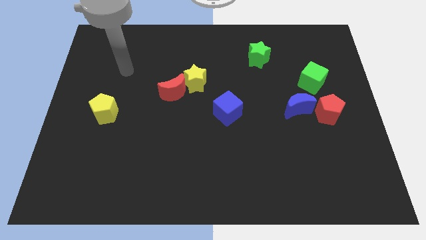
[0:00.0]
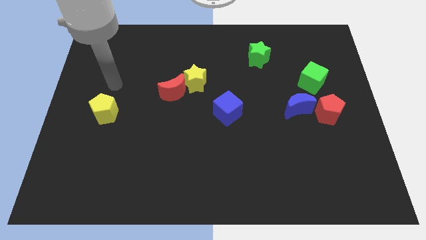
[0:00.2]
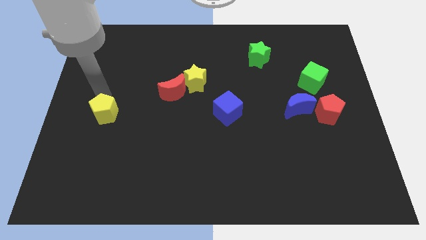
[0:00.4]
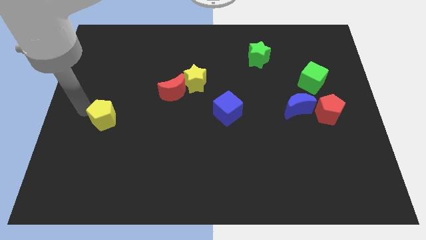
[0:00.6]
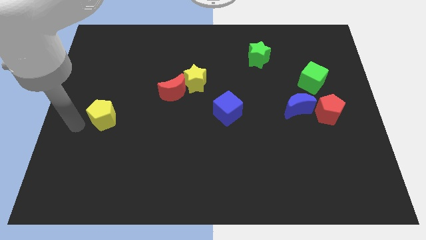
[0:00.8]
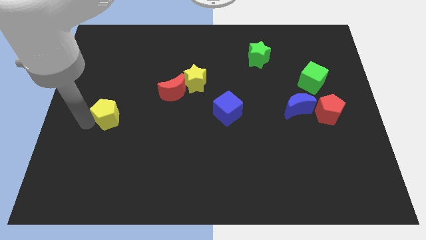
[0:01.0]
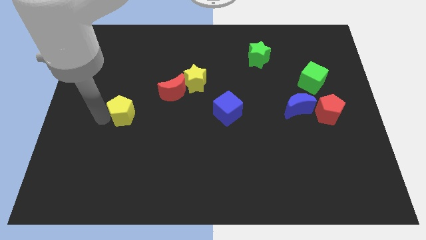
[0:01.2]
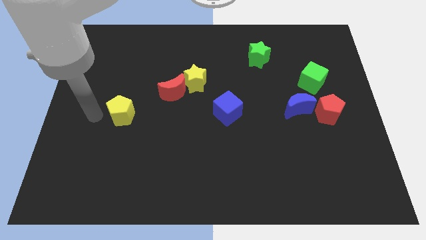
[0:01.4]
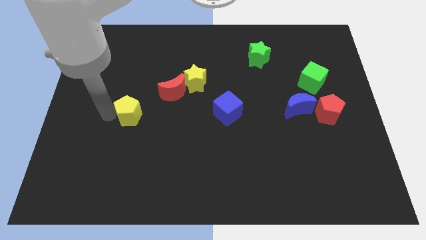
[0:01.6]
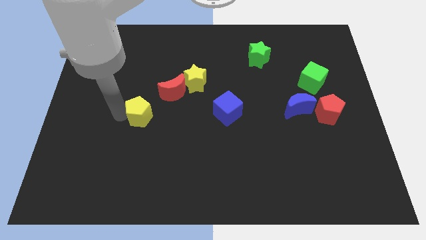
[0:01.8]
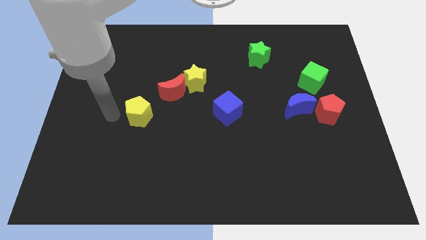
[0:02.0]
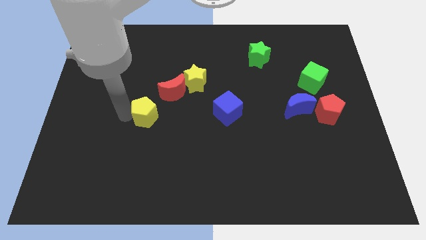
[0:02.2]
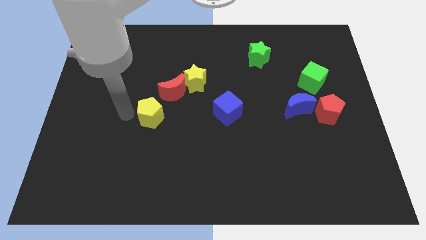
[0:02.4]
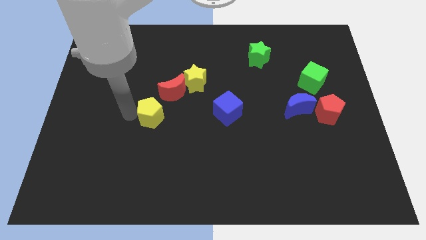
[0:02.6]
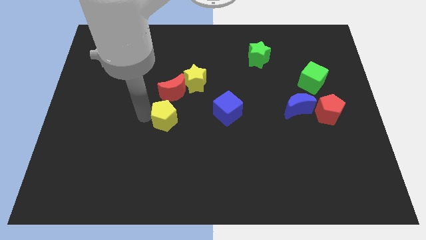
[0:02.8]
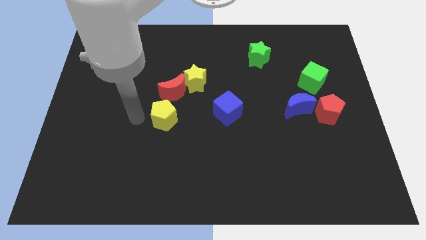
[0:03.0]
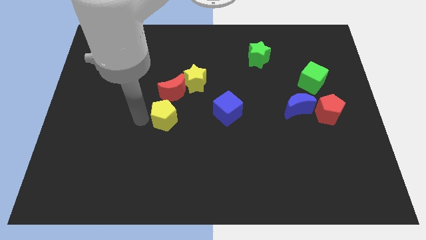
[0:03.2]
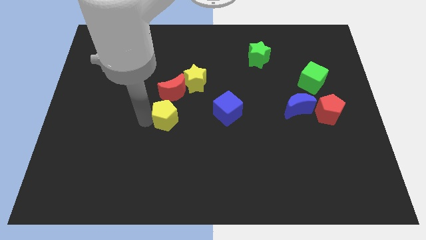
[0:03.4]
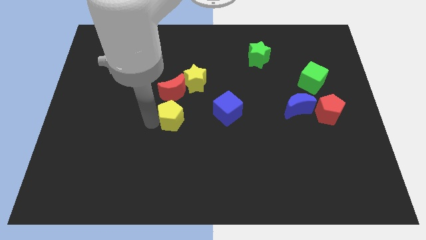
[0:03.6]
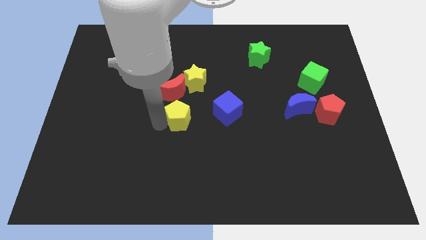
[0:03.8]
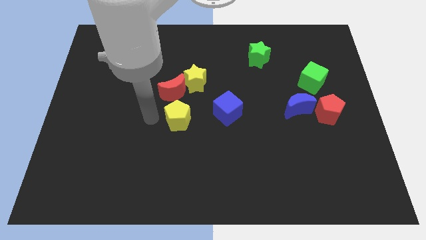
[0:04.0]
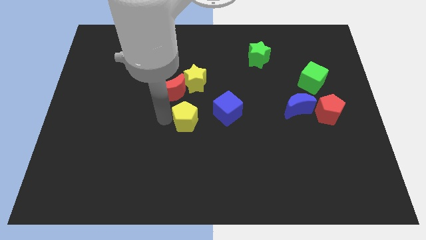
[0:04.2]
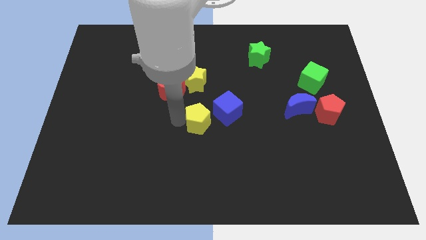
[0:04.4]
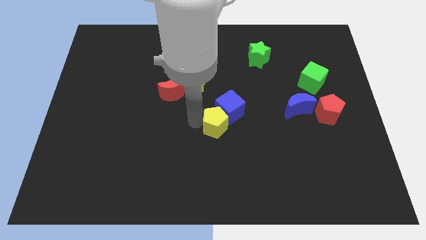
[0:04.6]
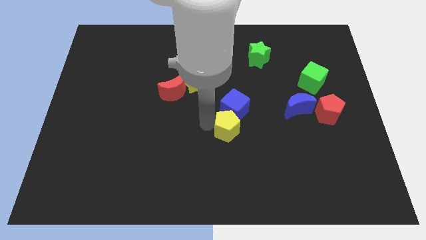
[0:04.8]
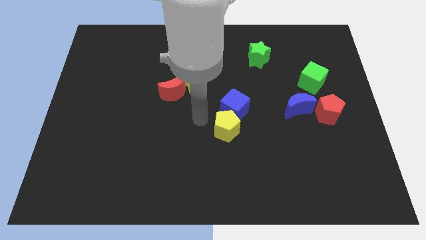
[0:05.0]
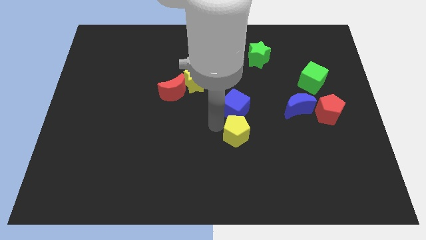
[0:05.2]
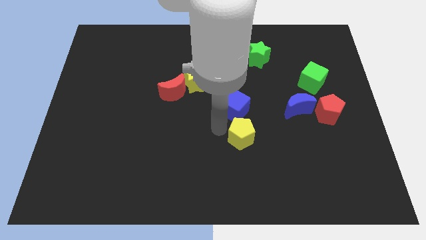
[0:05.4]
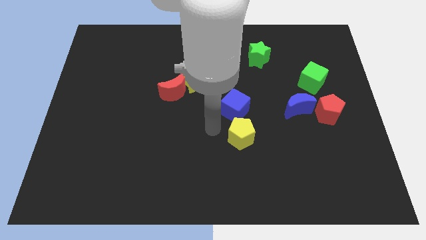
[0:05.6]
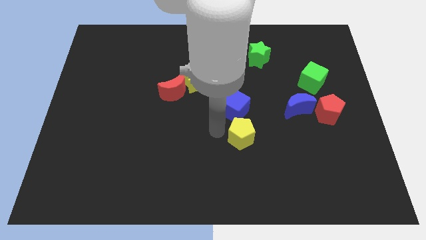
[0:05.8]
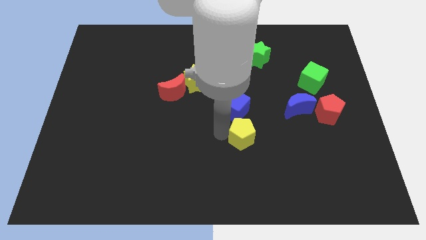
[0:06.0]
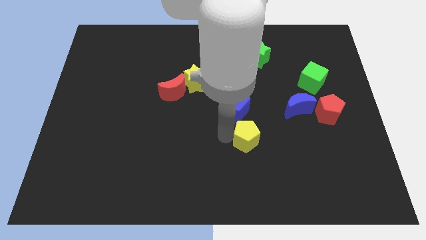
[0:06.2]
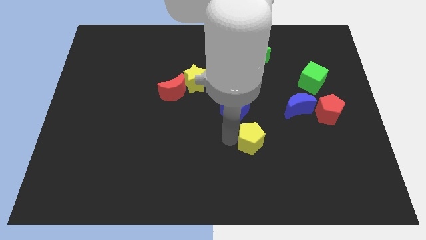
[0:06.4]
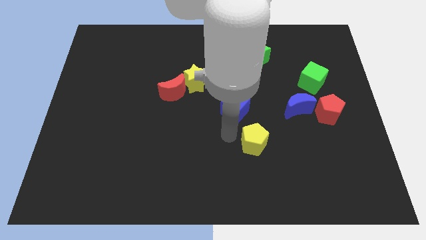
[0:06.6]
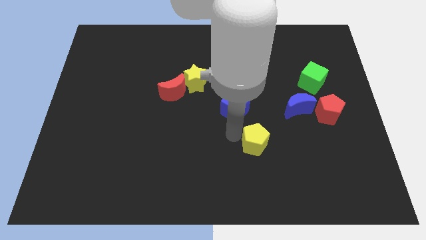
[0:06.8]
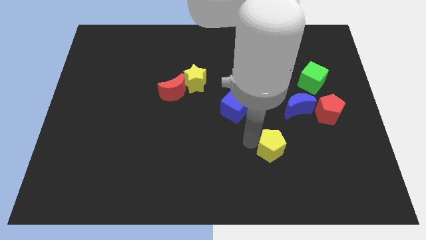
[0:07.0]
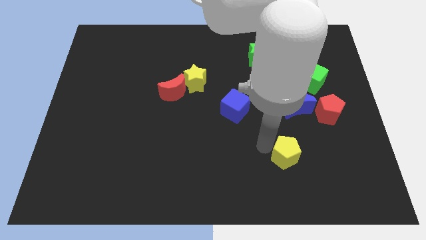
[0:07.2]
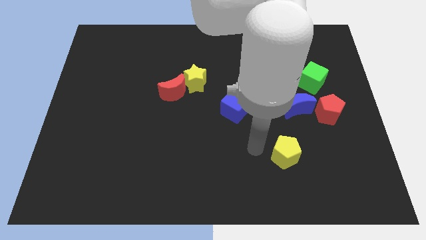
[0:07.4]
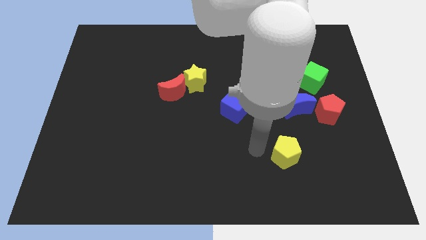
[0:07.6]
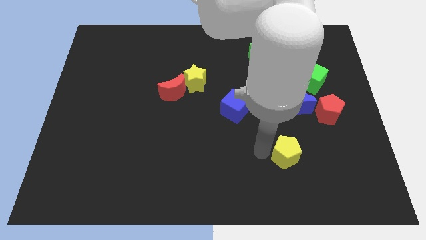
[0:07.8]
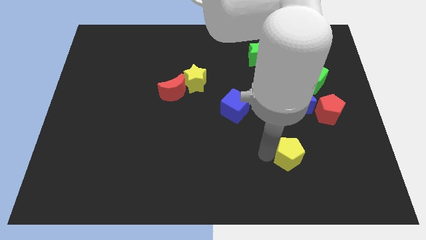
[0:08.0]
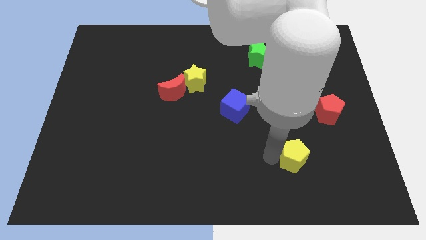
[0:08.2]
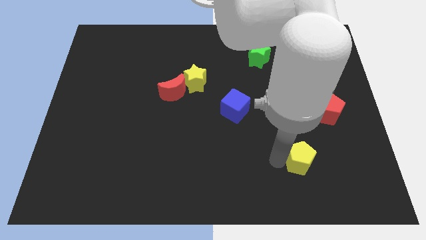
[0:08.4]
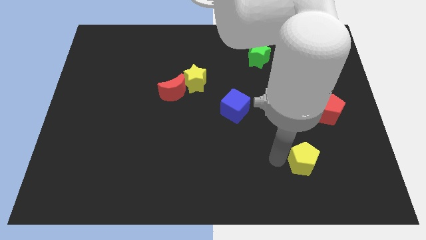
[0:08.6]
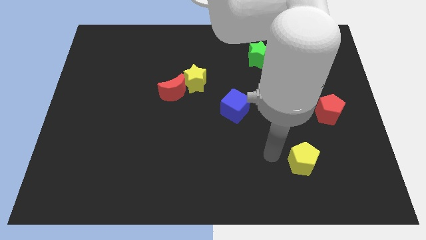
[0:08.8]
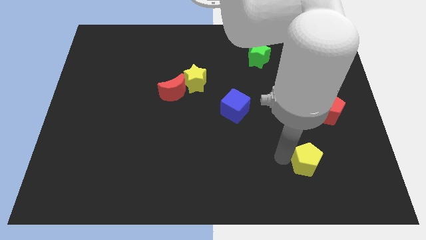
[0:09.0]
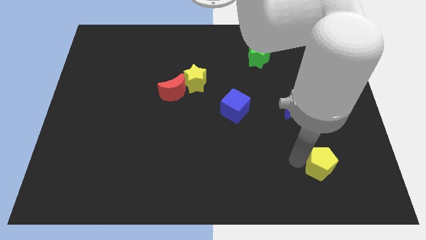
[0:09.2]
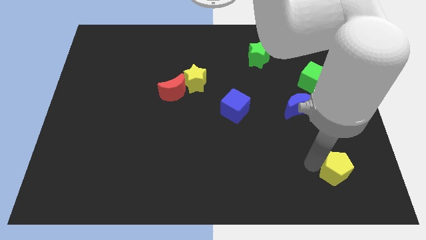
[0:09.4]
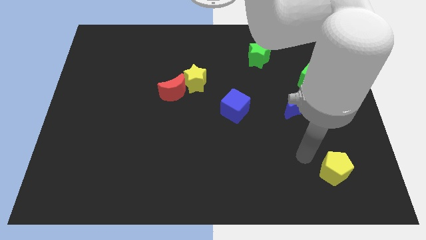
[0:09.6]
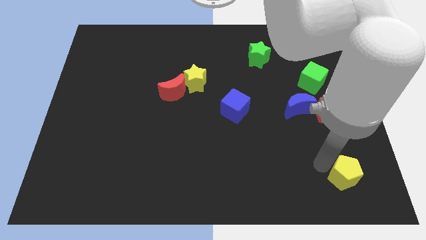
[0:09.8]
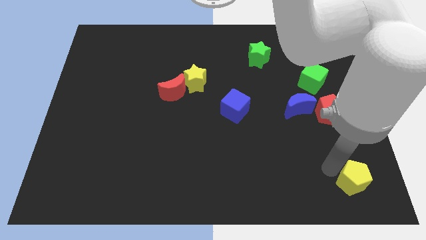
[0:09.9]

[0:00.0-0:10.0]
push the yellow pentagon to the lower right corner

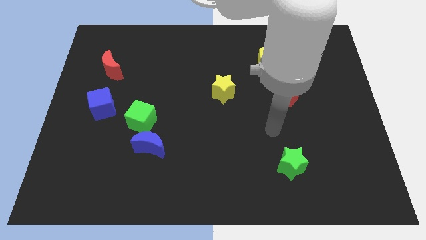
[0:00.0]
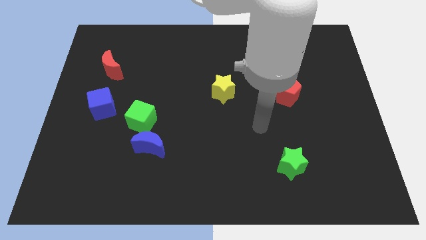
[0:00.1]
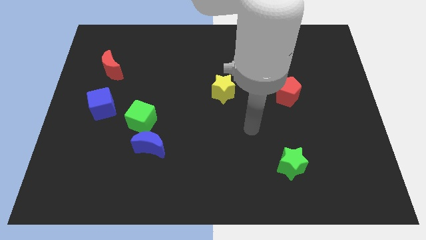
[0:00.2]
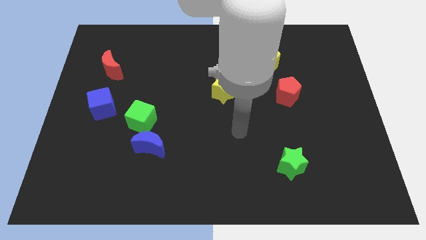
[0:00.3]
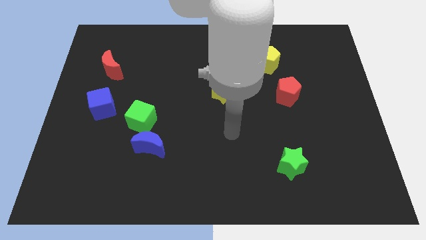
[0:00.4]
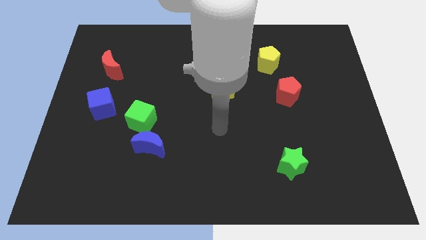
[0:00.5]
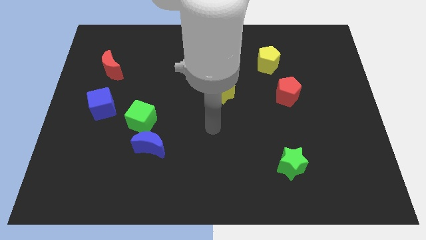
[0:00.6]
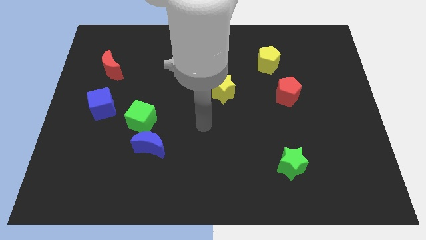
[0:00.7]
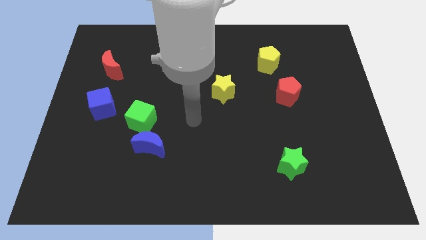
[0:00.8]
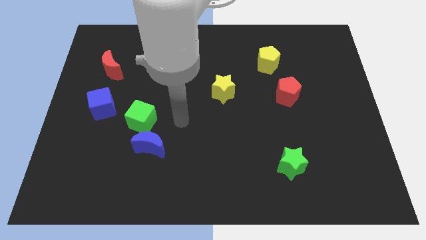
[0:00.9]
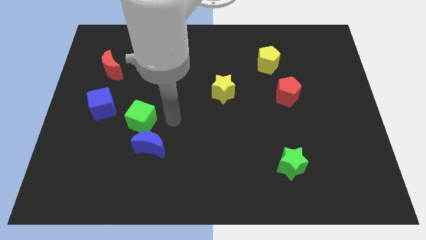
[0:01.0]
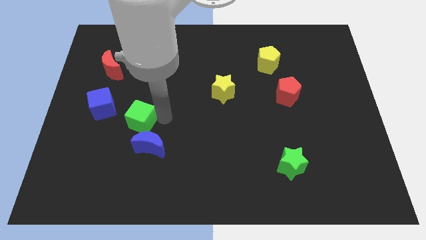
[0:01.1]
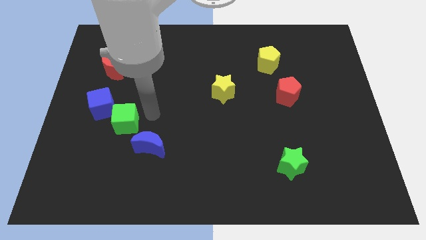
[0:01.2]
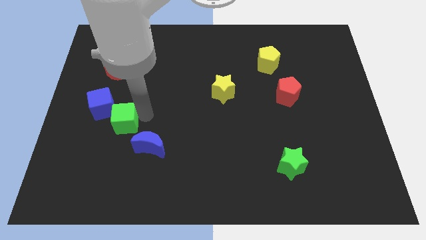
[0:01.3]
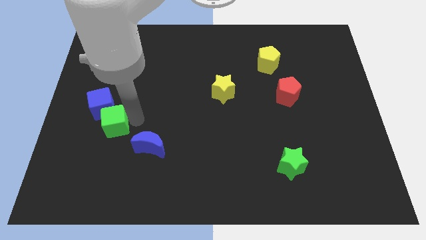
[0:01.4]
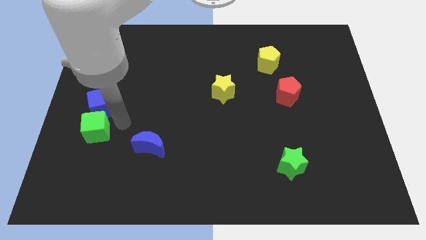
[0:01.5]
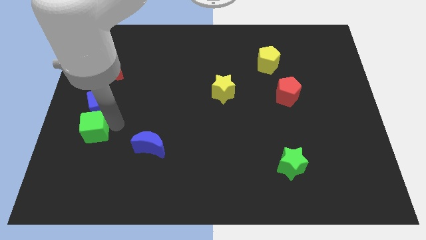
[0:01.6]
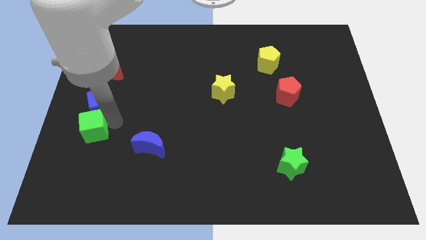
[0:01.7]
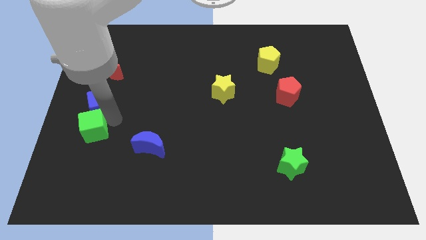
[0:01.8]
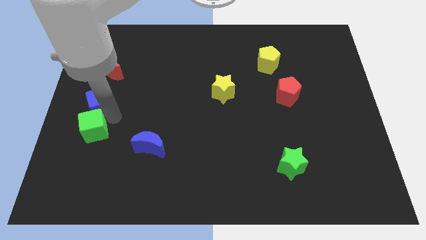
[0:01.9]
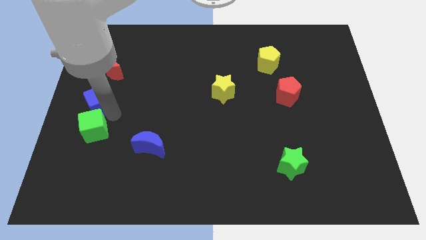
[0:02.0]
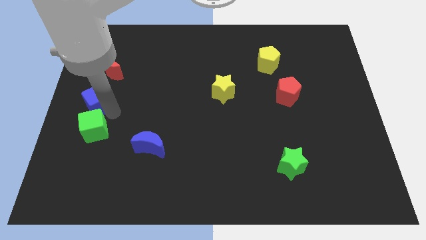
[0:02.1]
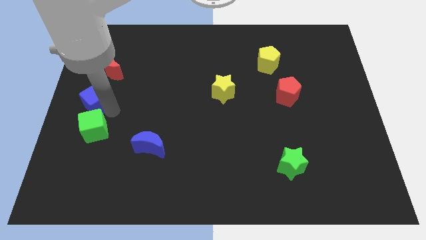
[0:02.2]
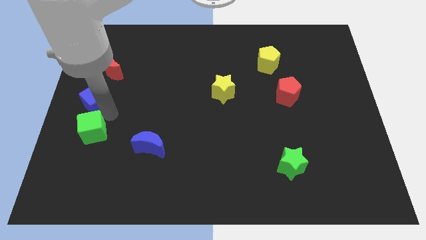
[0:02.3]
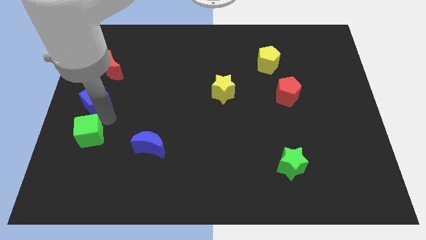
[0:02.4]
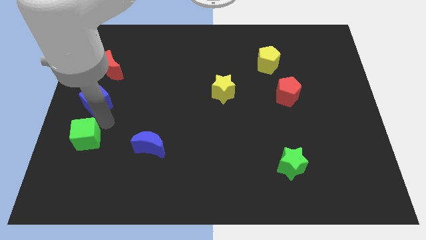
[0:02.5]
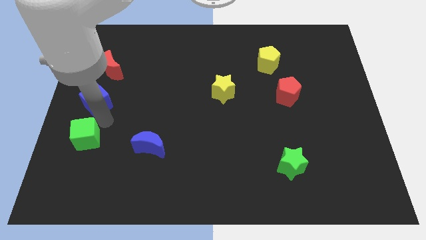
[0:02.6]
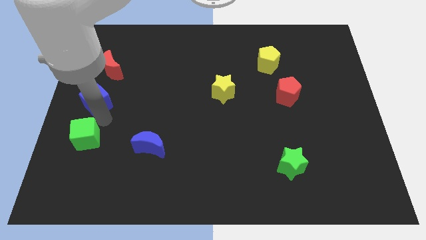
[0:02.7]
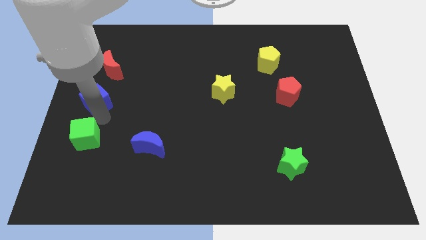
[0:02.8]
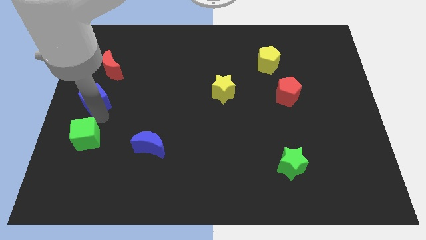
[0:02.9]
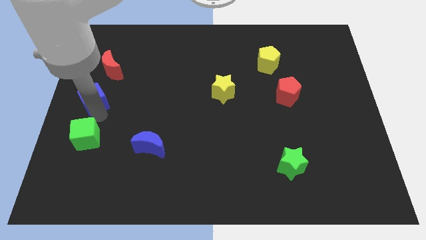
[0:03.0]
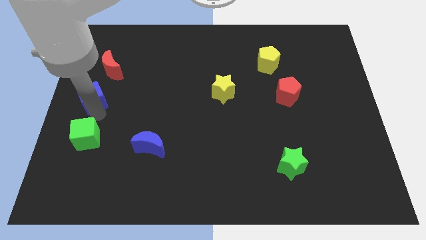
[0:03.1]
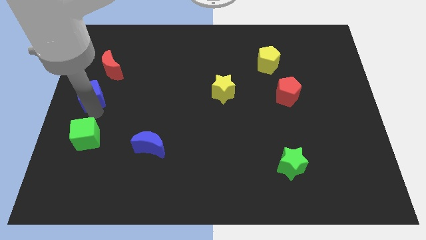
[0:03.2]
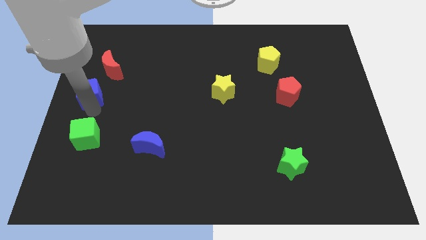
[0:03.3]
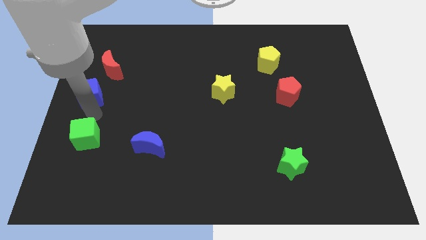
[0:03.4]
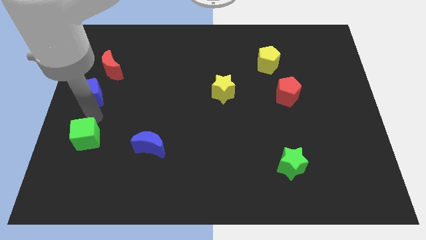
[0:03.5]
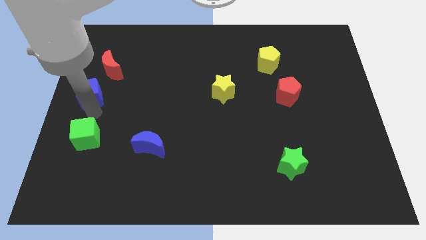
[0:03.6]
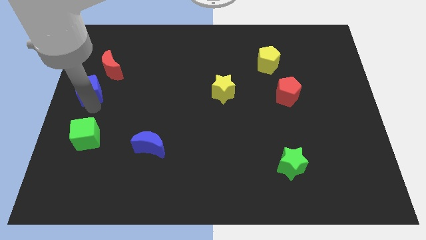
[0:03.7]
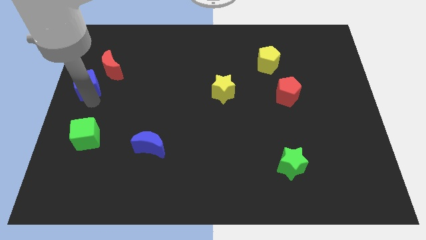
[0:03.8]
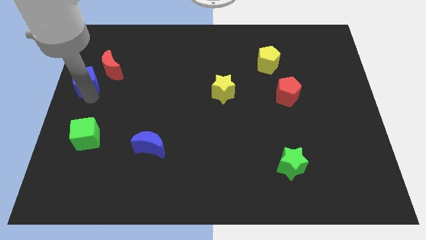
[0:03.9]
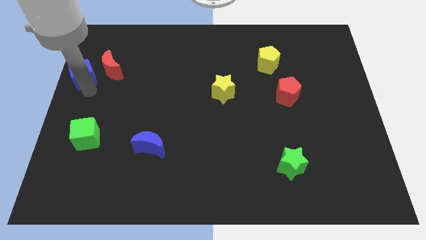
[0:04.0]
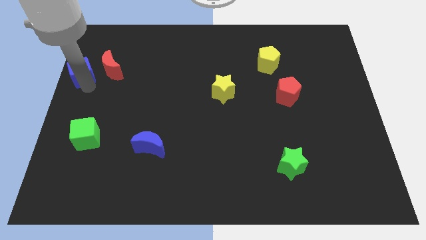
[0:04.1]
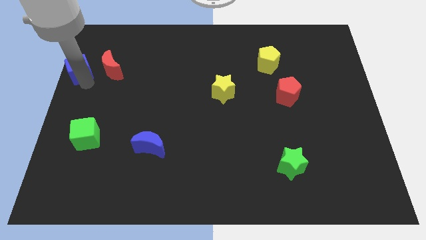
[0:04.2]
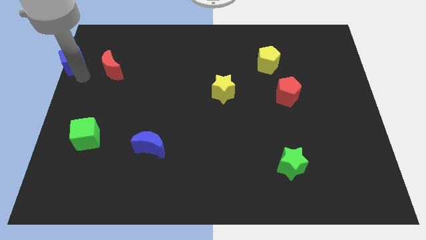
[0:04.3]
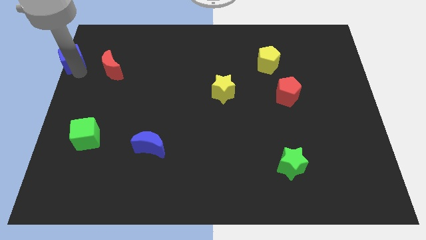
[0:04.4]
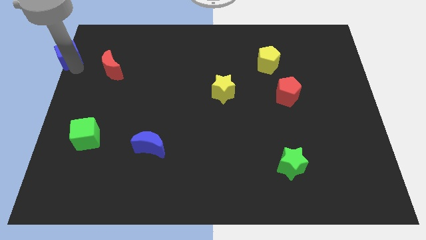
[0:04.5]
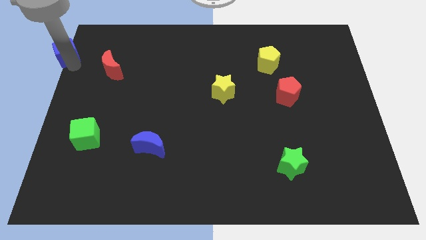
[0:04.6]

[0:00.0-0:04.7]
push the blue cube to the top left corner
